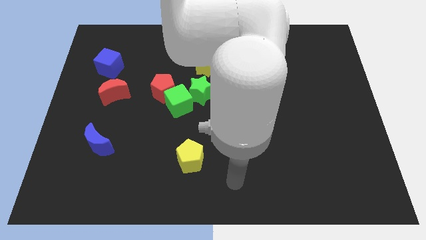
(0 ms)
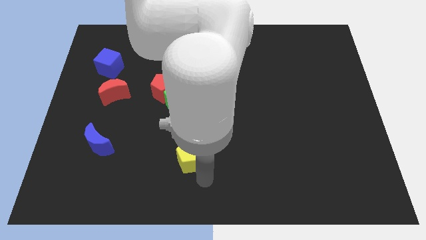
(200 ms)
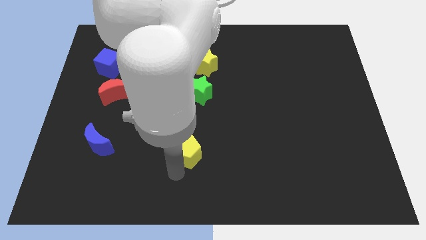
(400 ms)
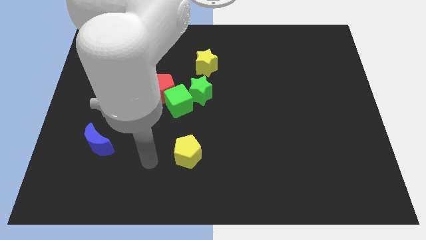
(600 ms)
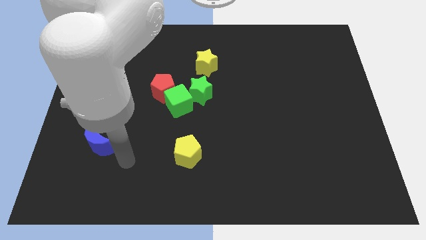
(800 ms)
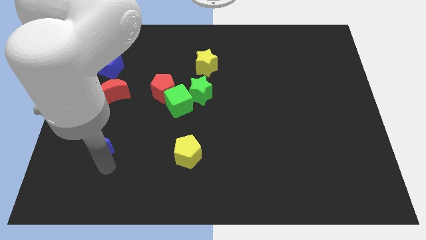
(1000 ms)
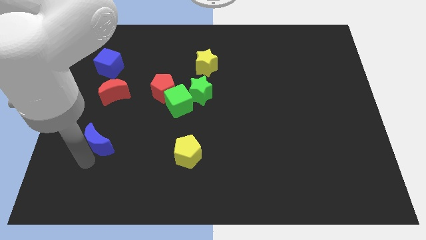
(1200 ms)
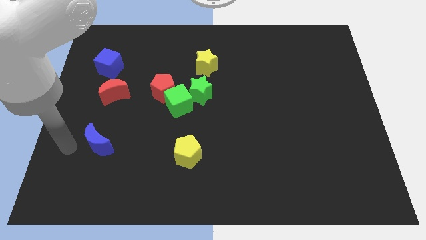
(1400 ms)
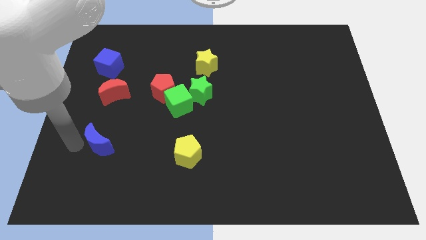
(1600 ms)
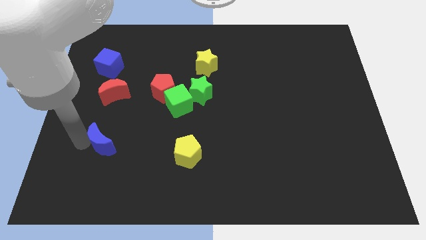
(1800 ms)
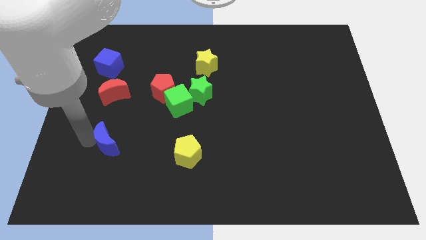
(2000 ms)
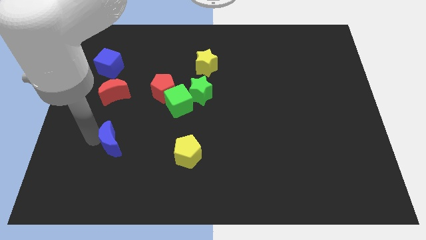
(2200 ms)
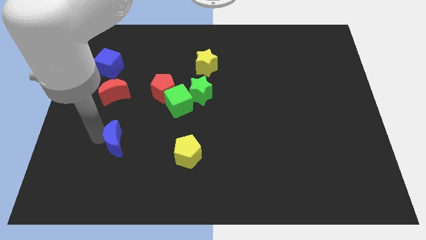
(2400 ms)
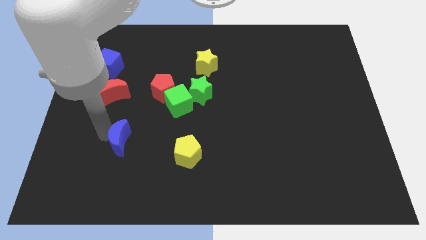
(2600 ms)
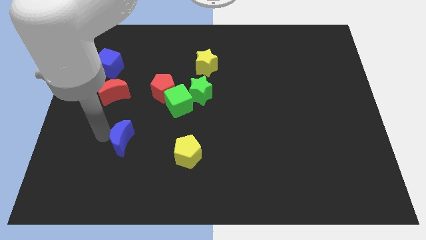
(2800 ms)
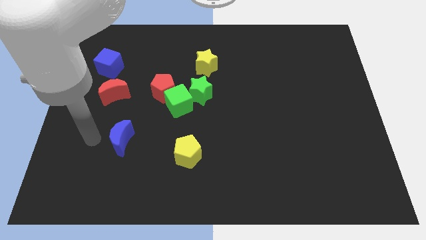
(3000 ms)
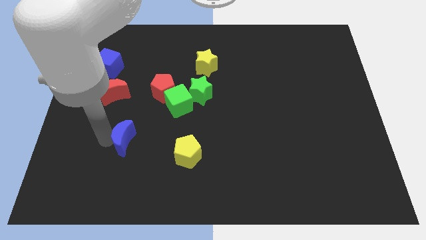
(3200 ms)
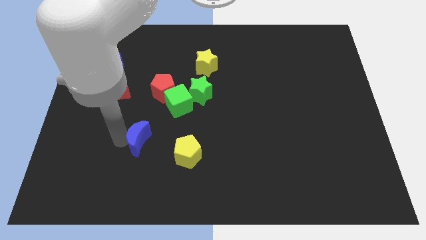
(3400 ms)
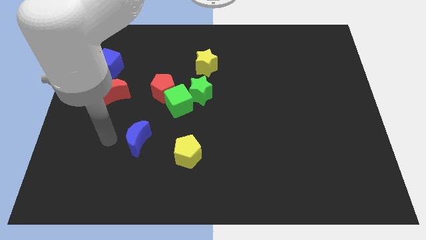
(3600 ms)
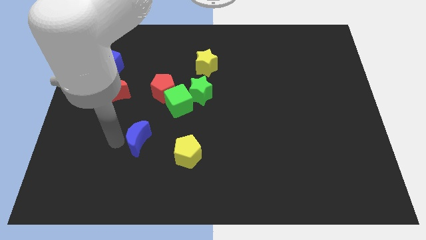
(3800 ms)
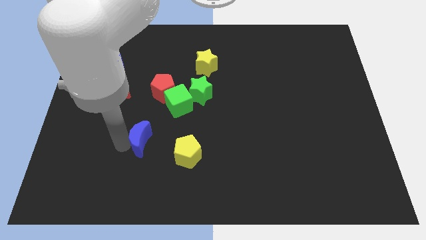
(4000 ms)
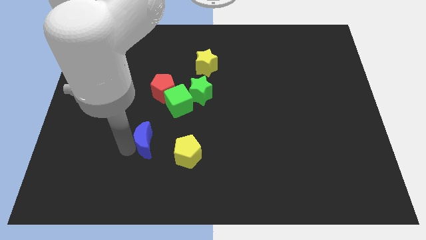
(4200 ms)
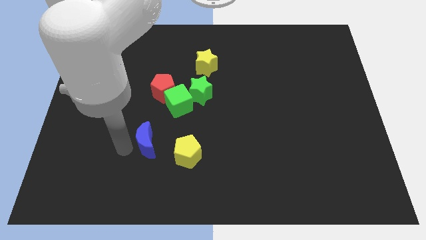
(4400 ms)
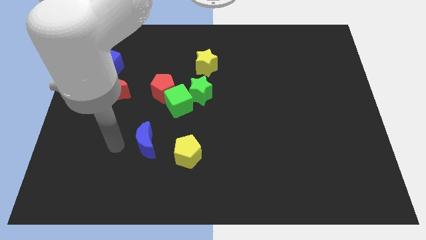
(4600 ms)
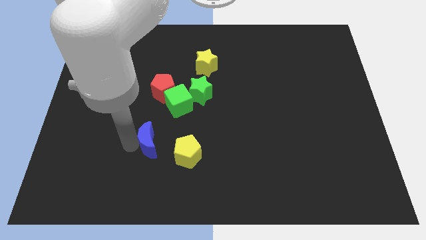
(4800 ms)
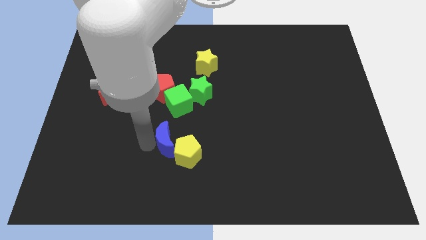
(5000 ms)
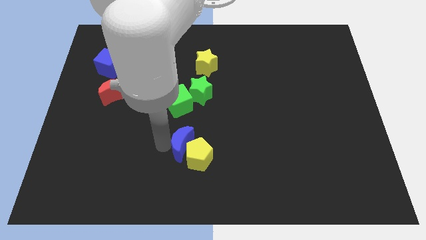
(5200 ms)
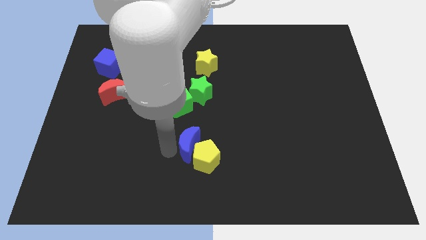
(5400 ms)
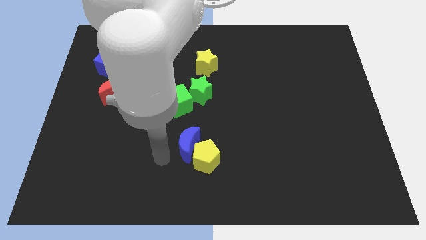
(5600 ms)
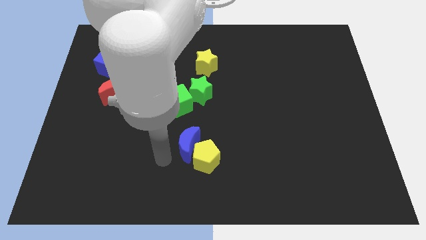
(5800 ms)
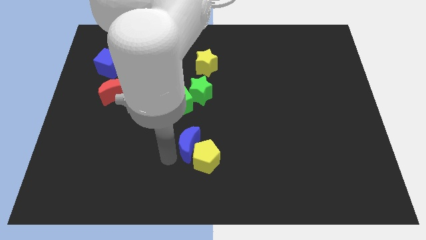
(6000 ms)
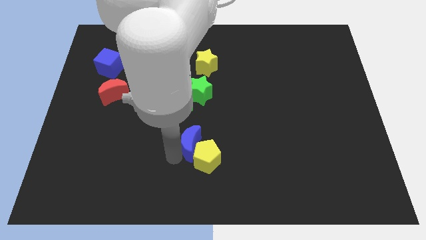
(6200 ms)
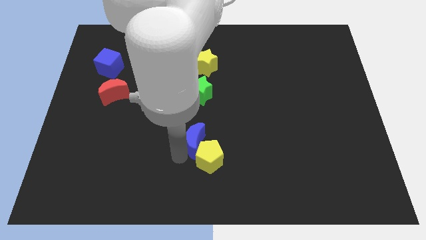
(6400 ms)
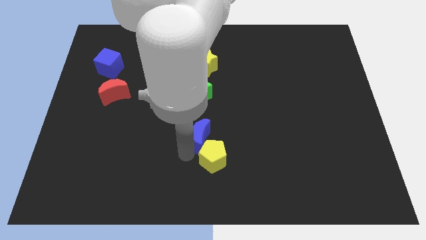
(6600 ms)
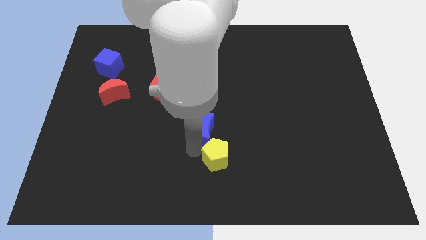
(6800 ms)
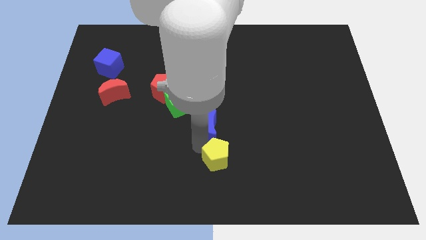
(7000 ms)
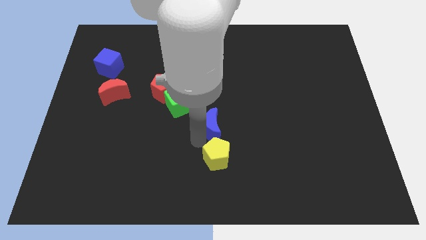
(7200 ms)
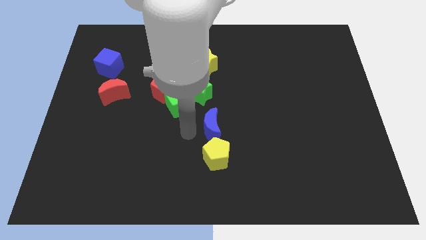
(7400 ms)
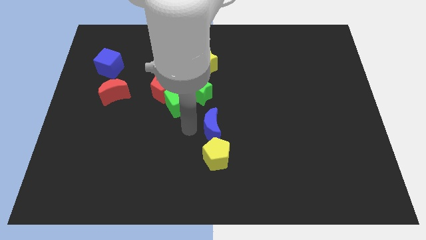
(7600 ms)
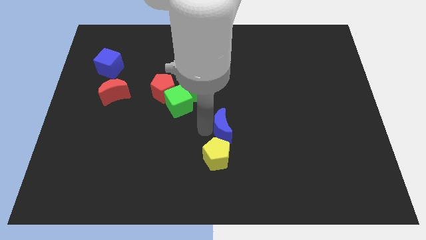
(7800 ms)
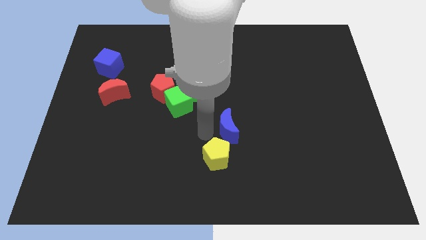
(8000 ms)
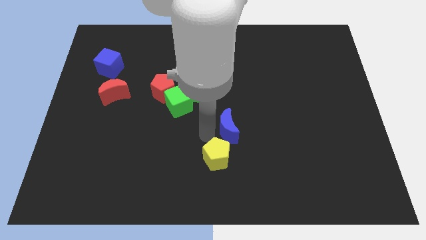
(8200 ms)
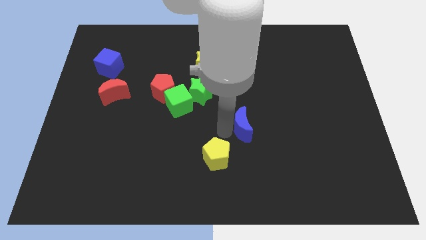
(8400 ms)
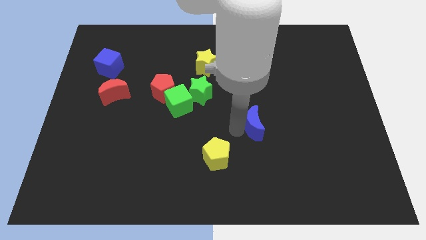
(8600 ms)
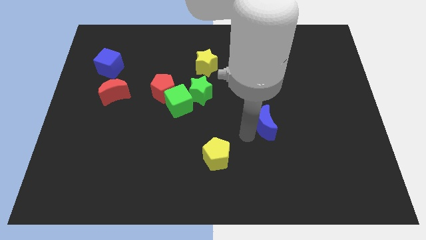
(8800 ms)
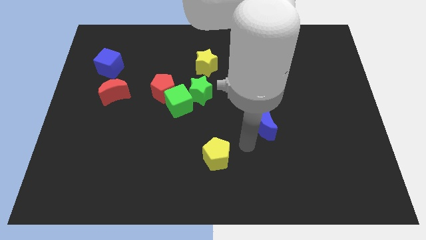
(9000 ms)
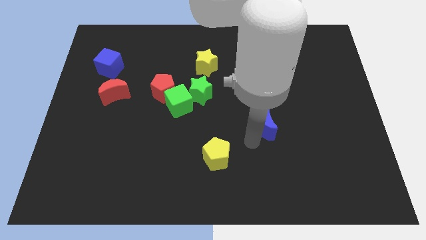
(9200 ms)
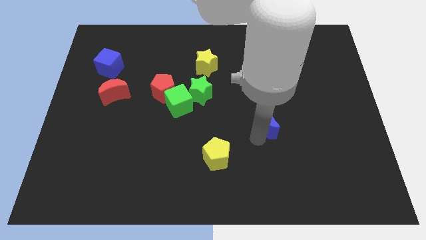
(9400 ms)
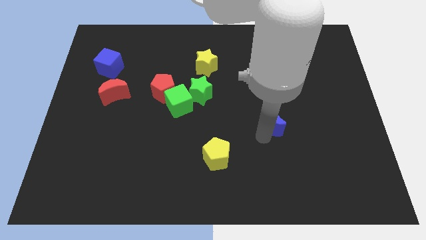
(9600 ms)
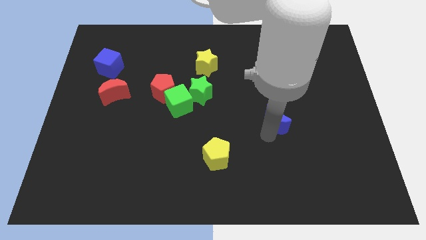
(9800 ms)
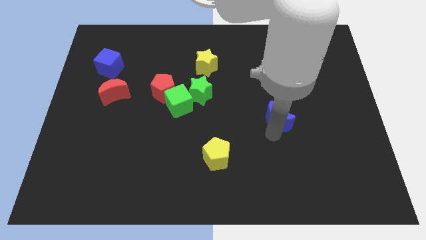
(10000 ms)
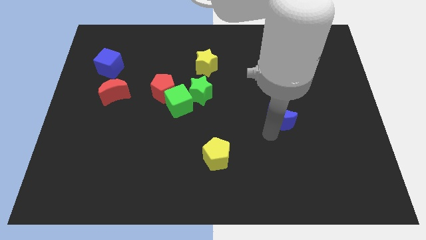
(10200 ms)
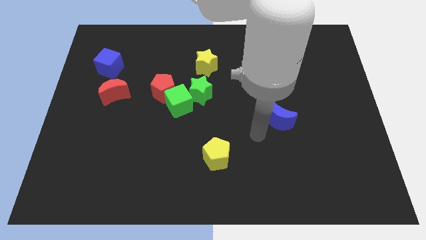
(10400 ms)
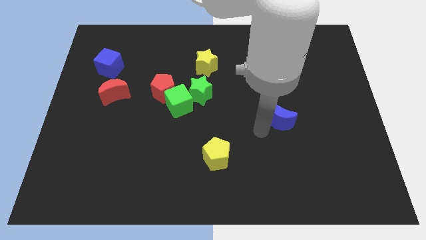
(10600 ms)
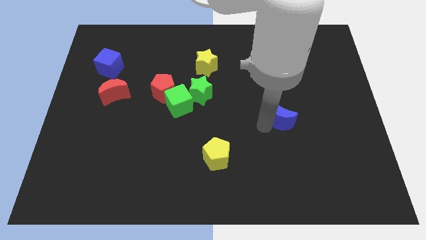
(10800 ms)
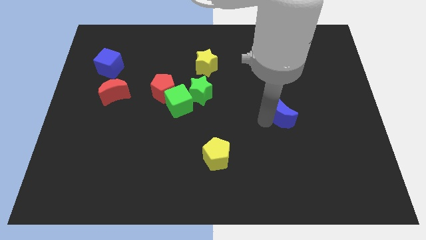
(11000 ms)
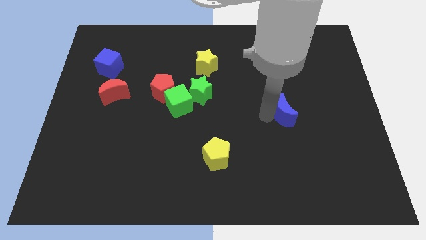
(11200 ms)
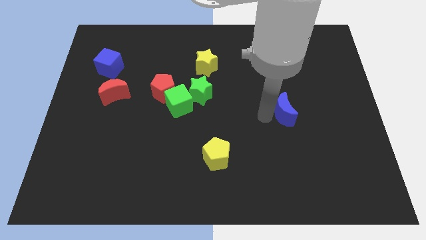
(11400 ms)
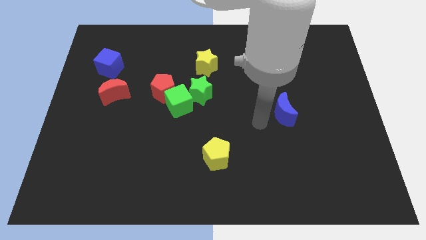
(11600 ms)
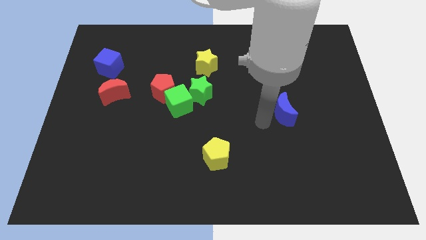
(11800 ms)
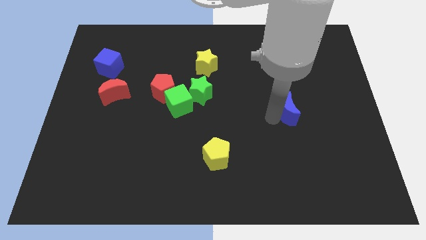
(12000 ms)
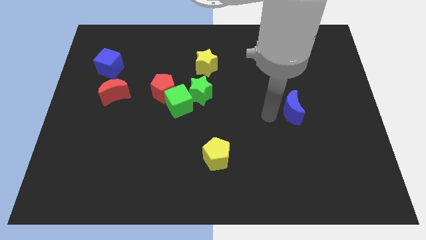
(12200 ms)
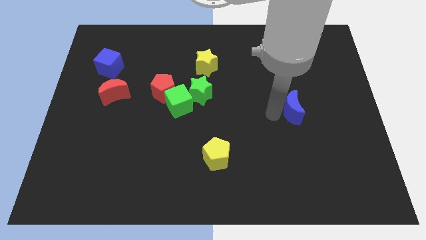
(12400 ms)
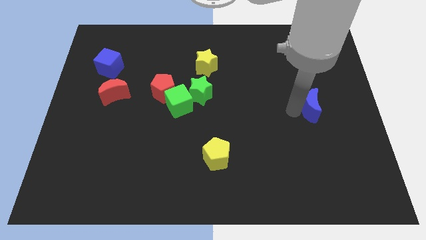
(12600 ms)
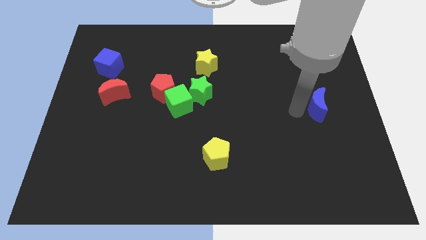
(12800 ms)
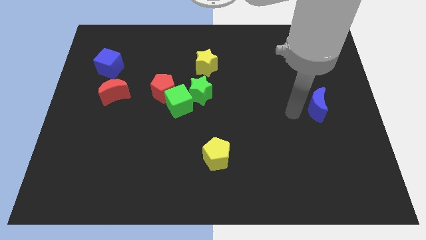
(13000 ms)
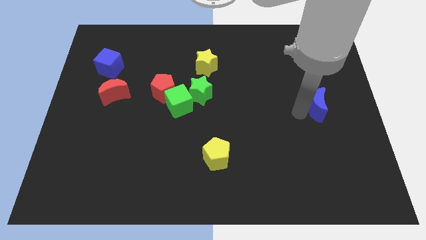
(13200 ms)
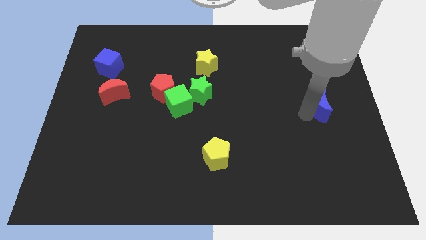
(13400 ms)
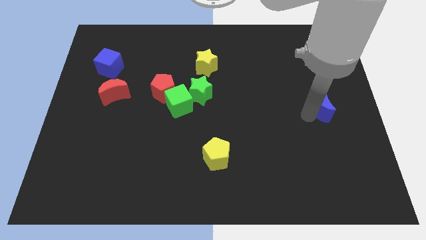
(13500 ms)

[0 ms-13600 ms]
put the blue moon to the right side

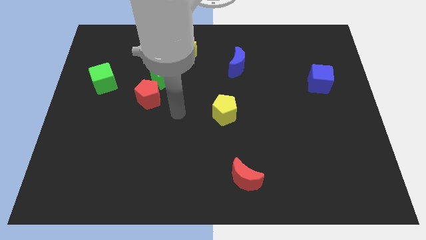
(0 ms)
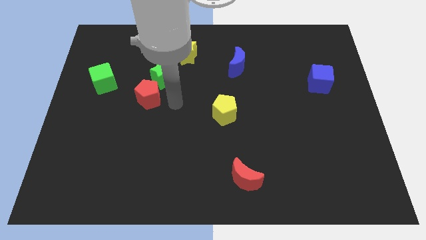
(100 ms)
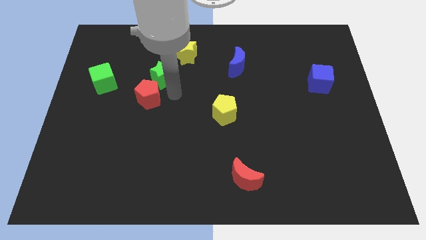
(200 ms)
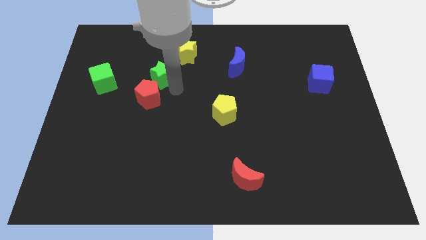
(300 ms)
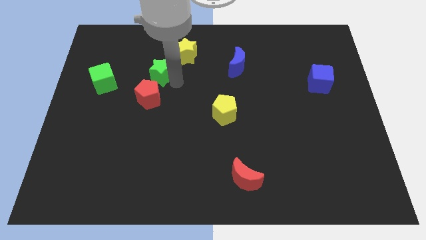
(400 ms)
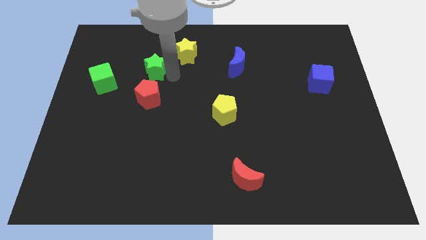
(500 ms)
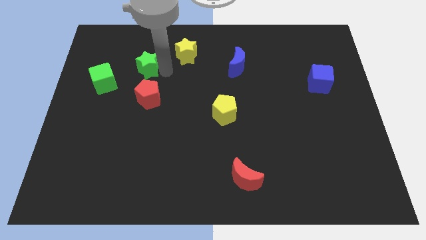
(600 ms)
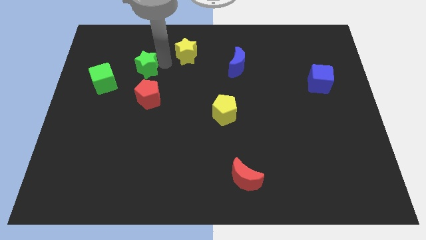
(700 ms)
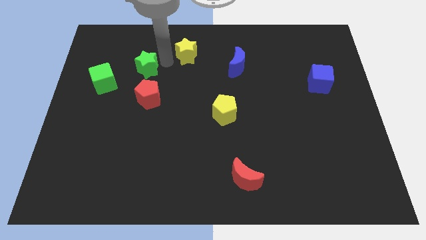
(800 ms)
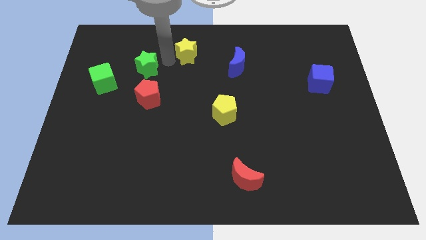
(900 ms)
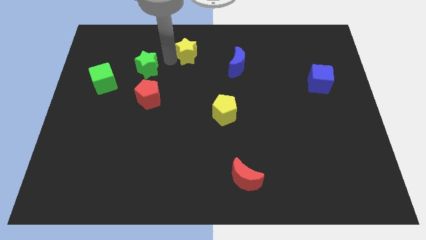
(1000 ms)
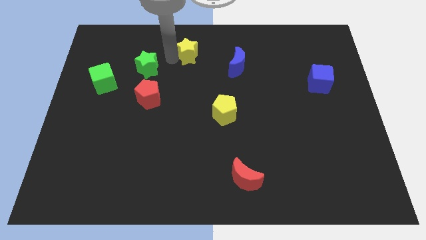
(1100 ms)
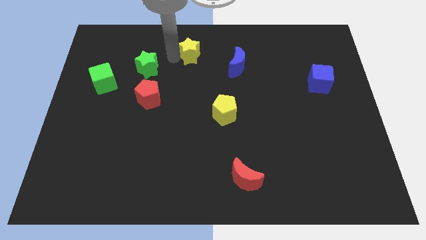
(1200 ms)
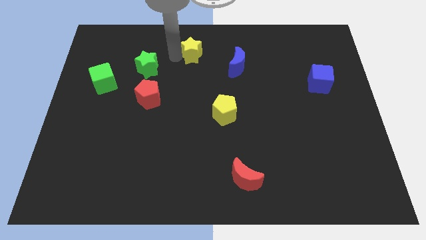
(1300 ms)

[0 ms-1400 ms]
slide the yellow star to the top side
